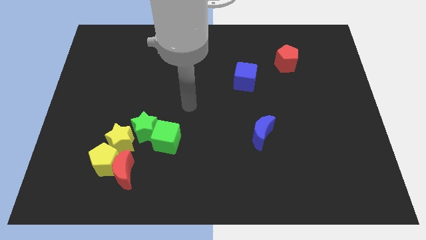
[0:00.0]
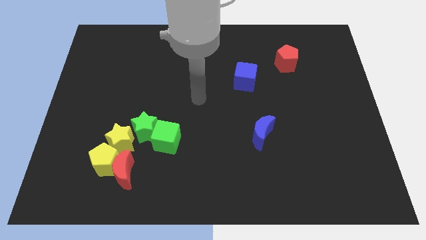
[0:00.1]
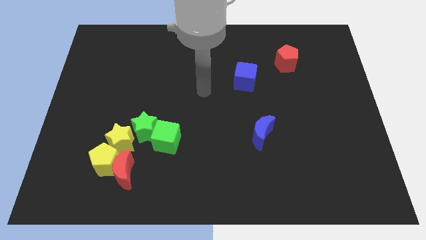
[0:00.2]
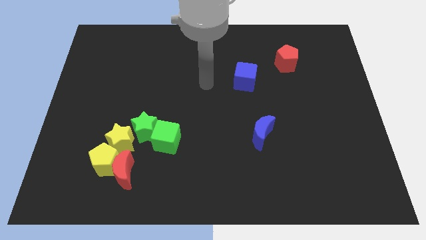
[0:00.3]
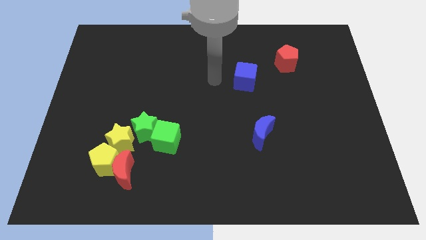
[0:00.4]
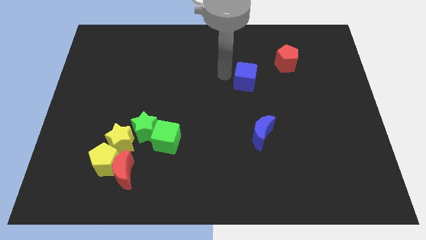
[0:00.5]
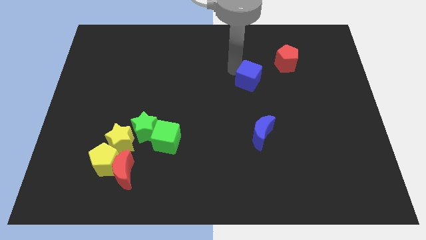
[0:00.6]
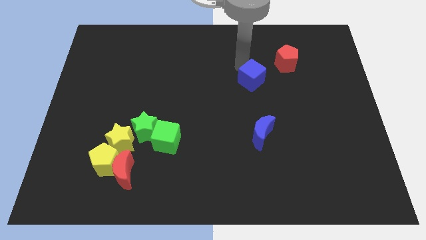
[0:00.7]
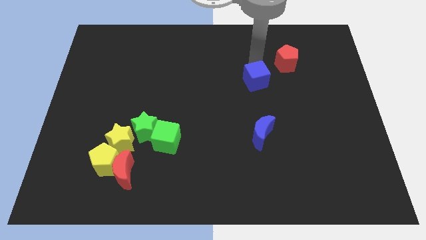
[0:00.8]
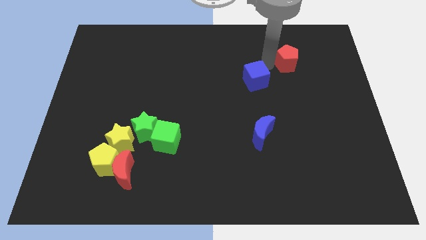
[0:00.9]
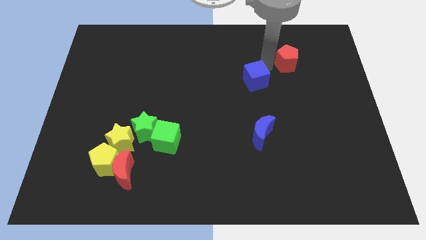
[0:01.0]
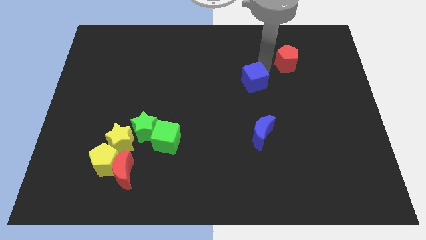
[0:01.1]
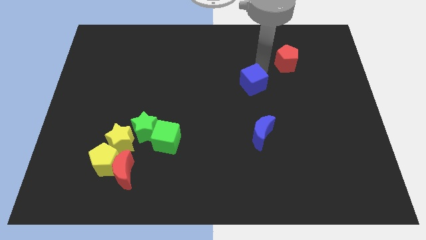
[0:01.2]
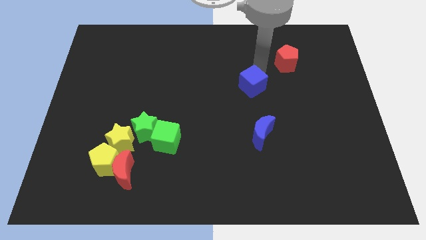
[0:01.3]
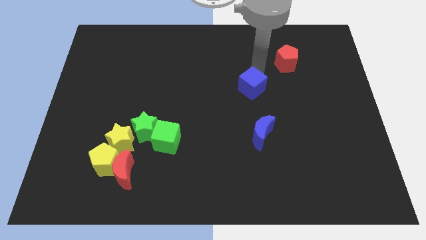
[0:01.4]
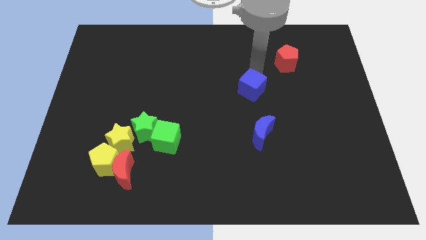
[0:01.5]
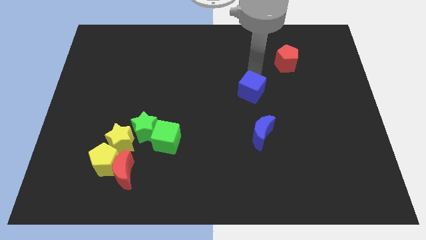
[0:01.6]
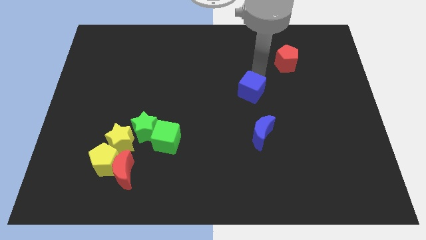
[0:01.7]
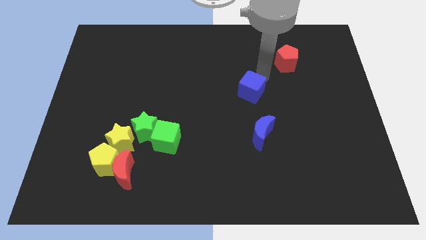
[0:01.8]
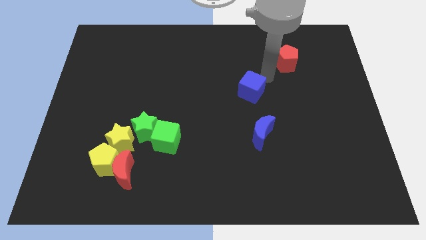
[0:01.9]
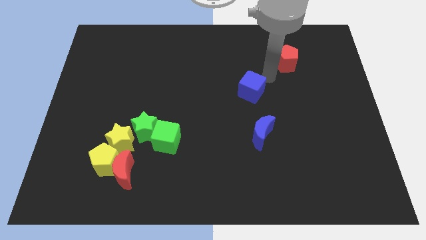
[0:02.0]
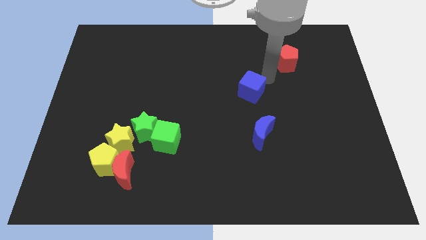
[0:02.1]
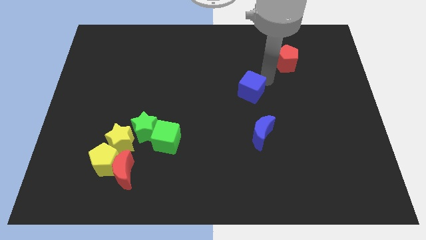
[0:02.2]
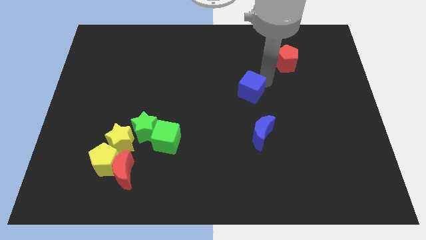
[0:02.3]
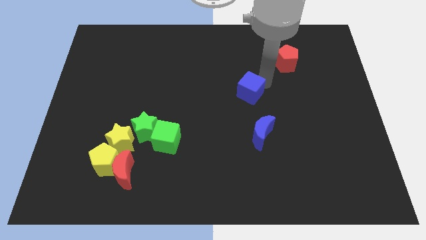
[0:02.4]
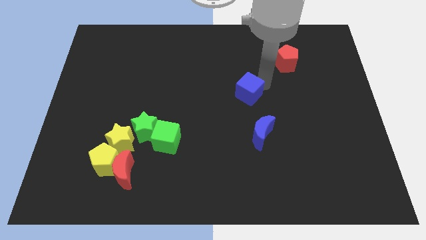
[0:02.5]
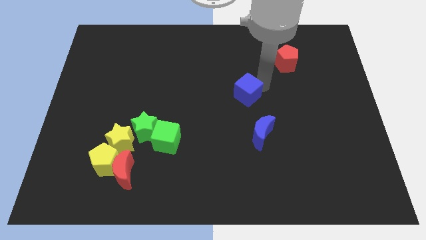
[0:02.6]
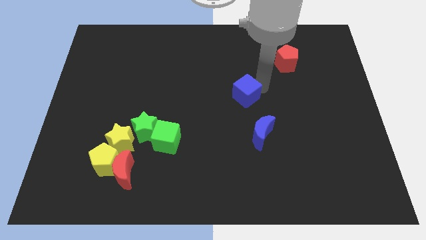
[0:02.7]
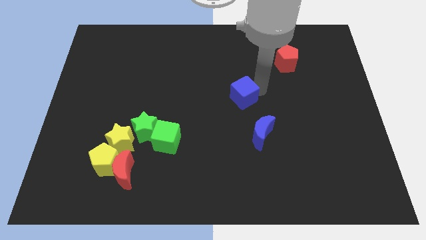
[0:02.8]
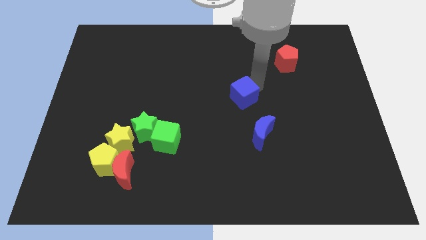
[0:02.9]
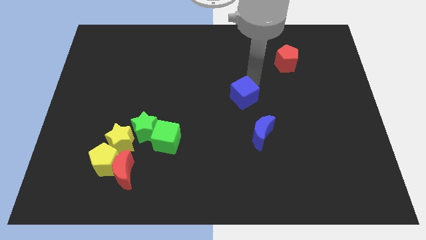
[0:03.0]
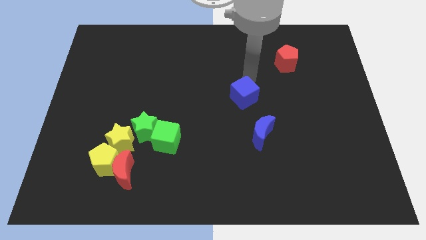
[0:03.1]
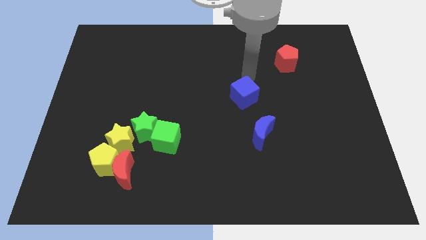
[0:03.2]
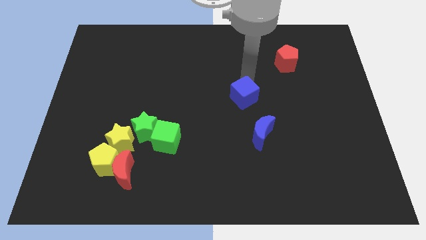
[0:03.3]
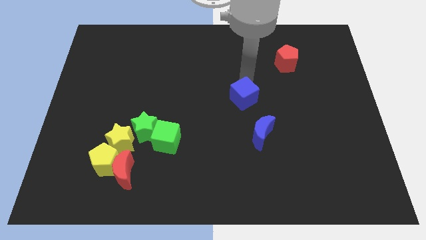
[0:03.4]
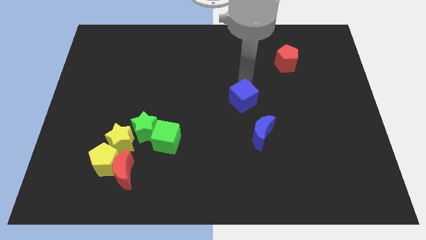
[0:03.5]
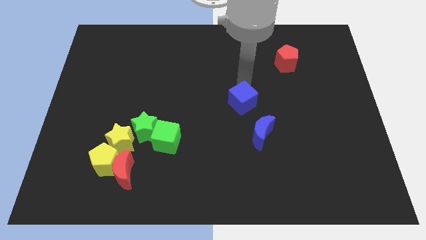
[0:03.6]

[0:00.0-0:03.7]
push the blue cube a little bit downwards

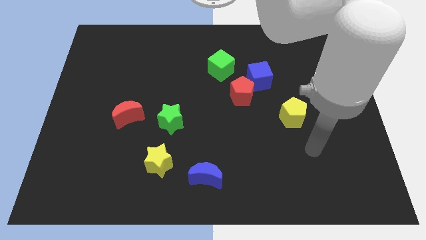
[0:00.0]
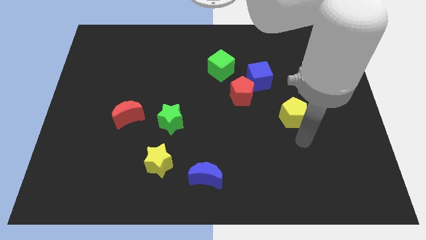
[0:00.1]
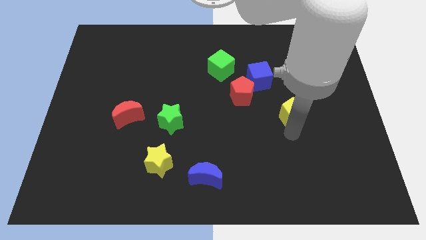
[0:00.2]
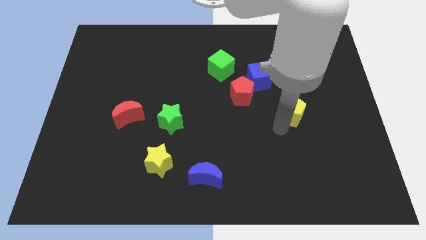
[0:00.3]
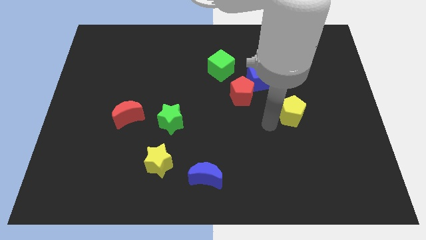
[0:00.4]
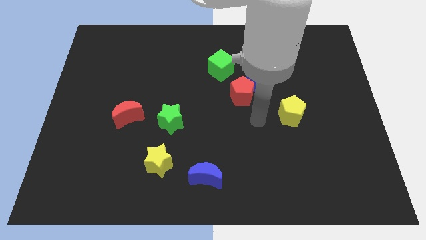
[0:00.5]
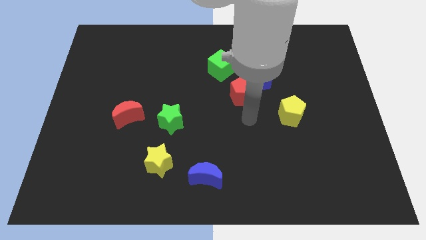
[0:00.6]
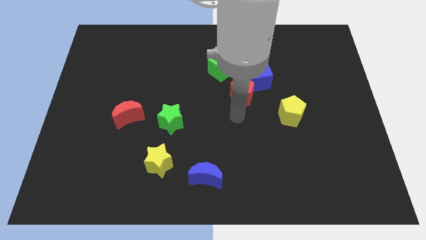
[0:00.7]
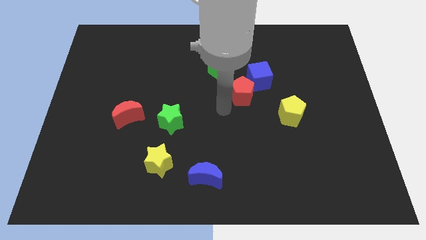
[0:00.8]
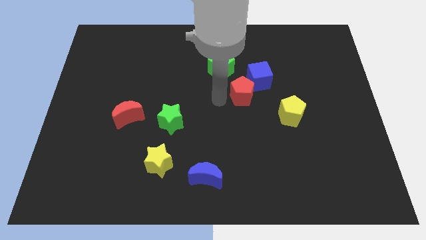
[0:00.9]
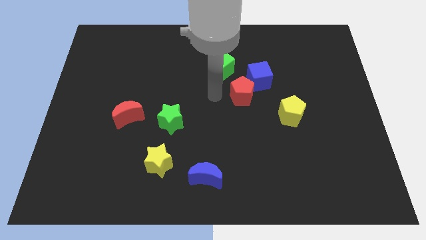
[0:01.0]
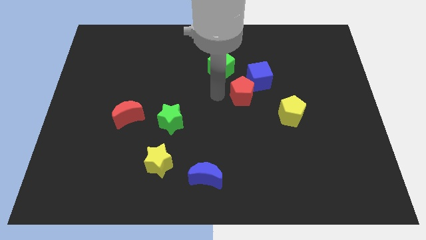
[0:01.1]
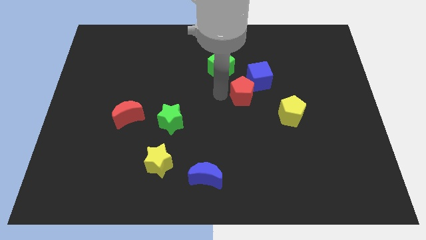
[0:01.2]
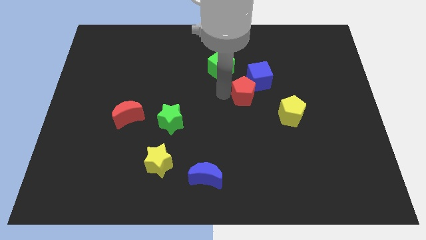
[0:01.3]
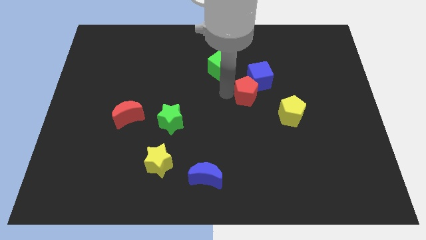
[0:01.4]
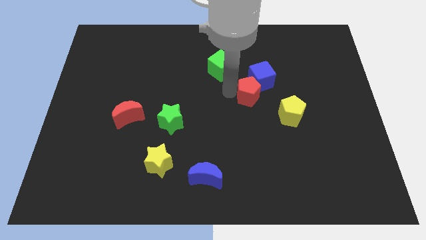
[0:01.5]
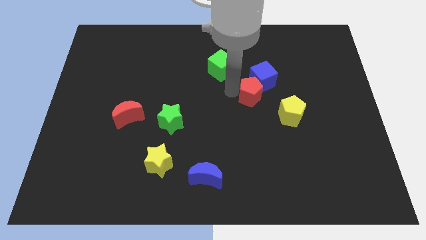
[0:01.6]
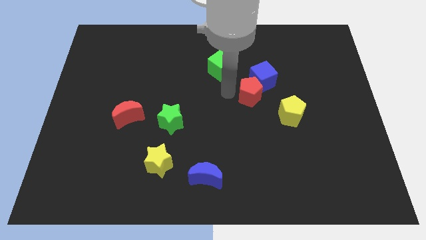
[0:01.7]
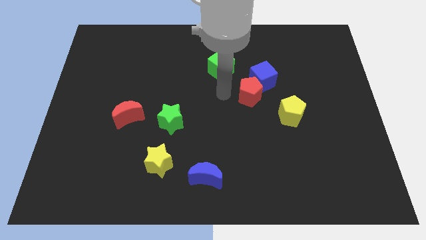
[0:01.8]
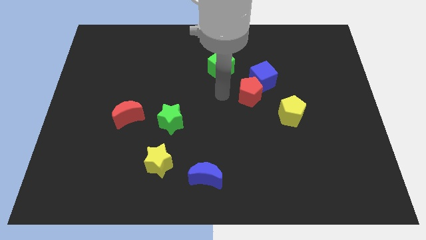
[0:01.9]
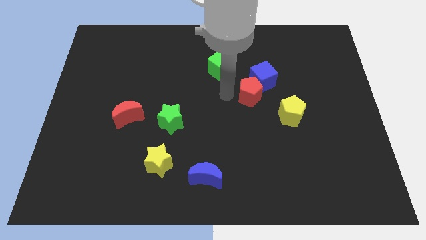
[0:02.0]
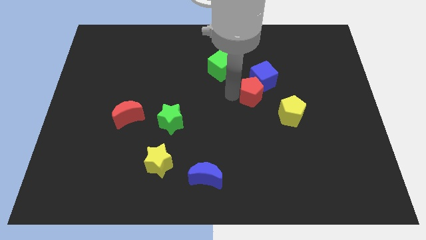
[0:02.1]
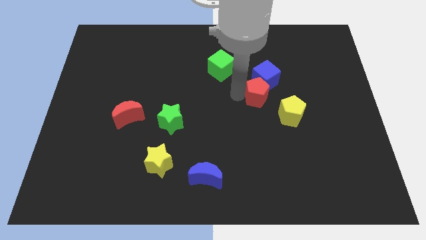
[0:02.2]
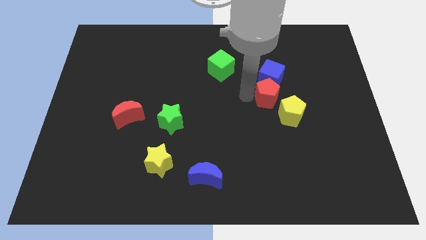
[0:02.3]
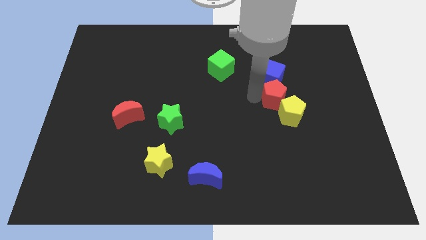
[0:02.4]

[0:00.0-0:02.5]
push the red pentagon a bit to the right

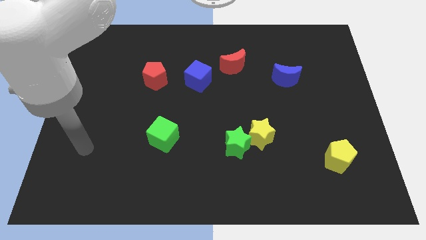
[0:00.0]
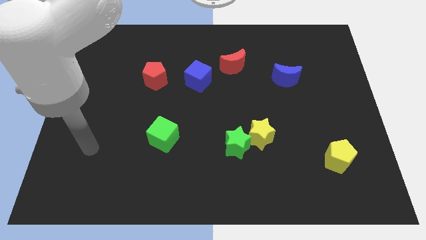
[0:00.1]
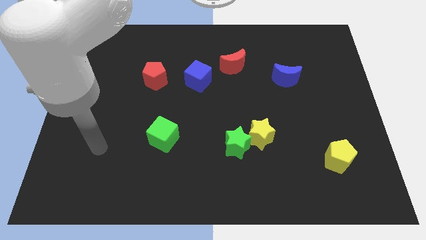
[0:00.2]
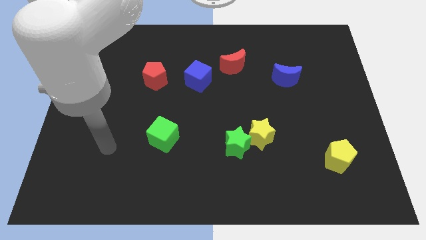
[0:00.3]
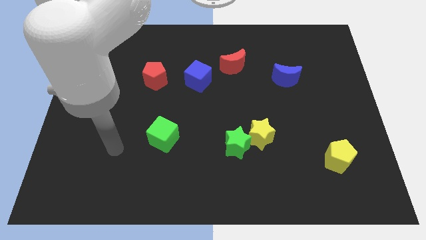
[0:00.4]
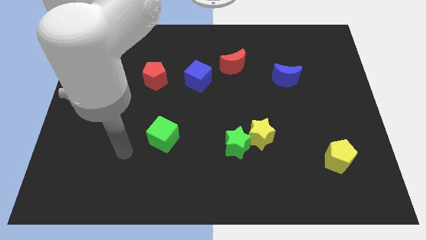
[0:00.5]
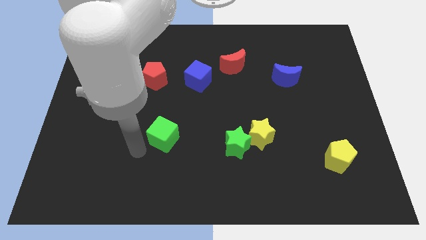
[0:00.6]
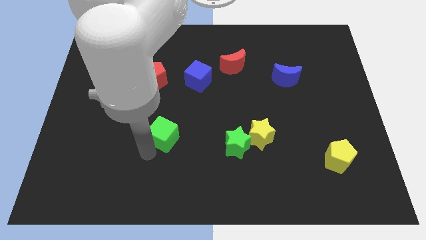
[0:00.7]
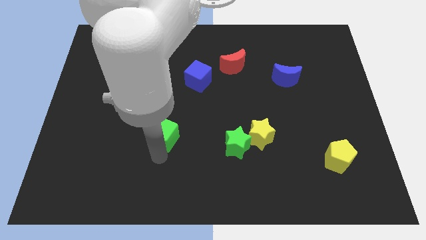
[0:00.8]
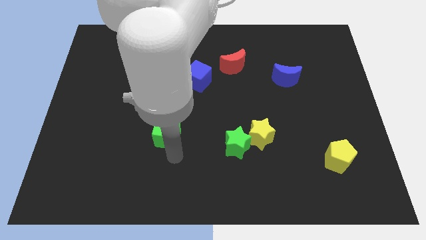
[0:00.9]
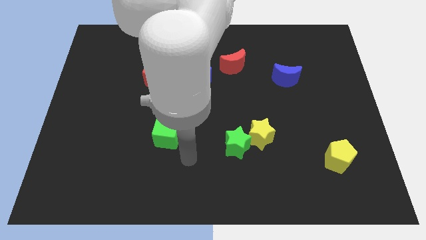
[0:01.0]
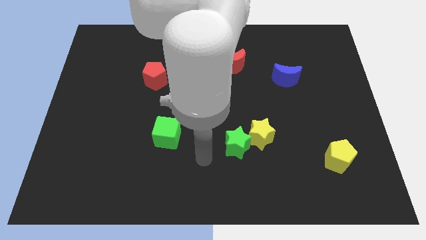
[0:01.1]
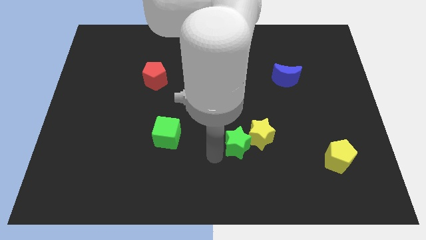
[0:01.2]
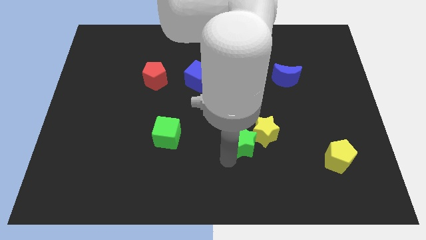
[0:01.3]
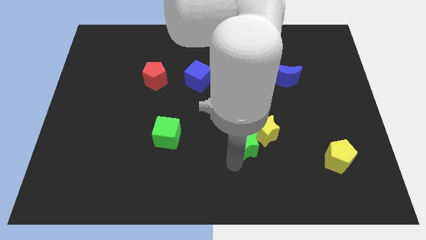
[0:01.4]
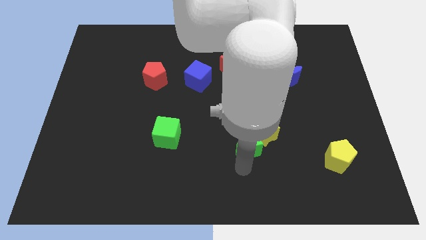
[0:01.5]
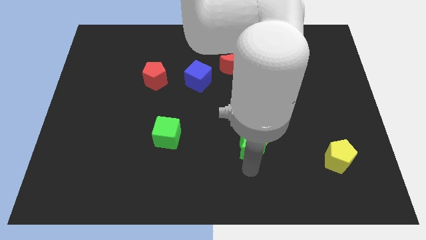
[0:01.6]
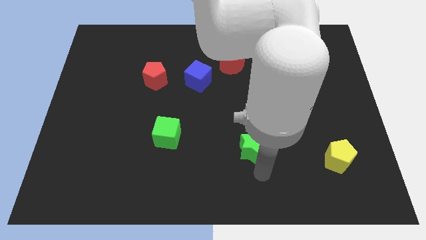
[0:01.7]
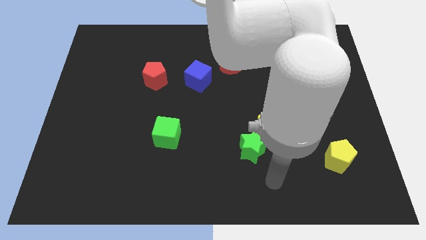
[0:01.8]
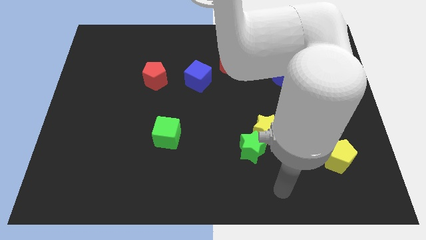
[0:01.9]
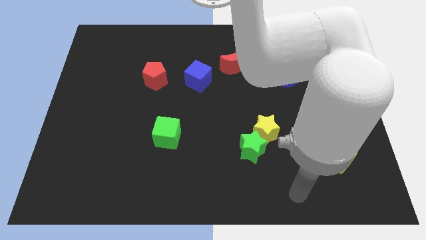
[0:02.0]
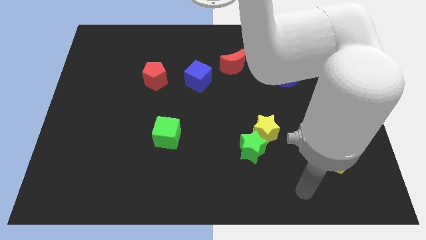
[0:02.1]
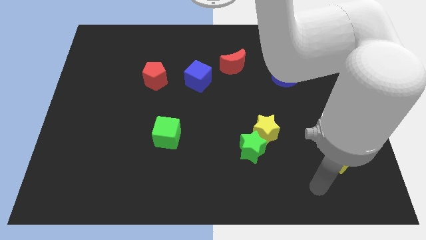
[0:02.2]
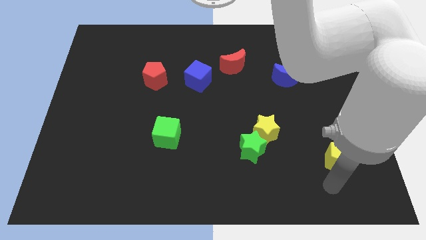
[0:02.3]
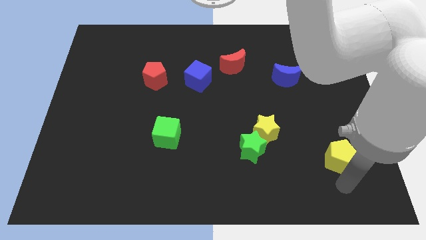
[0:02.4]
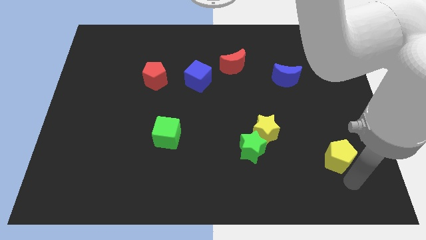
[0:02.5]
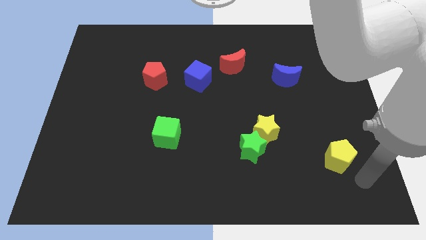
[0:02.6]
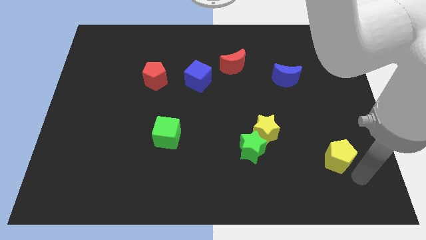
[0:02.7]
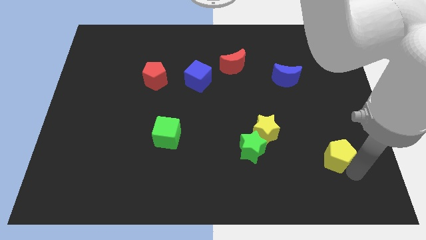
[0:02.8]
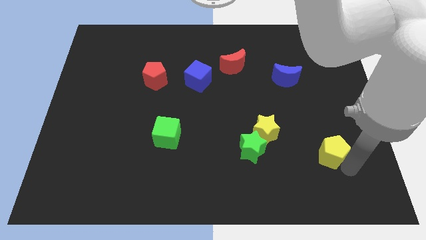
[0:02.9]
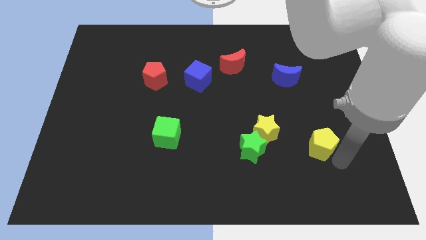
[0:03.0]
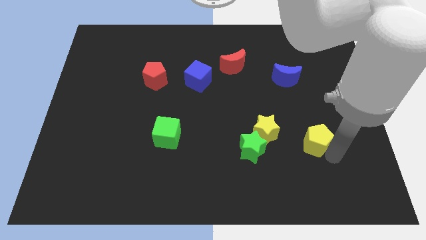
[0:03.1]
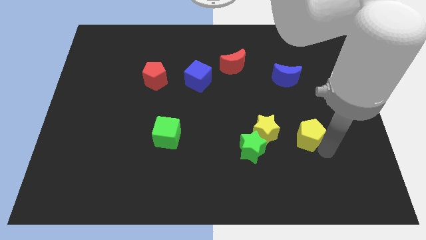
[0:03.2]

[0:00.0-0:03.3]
push the yellow pentagon somewhat up and then to the left
